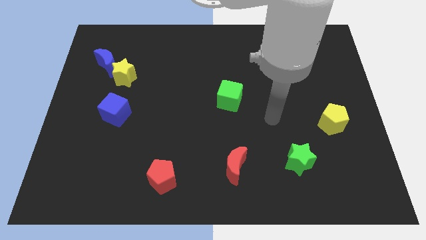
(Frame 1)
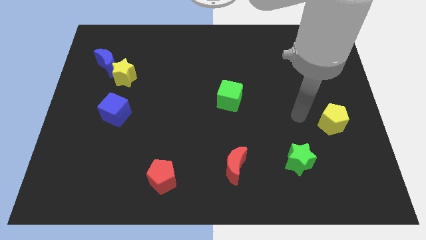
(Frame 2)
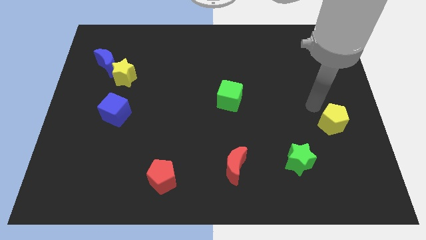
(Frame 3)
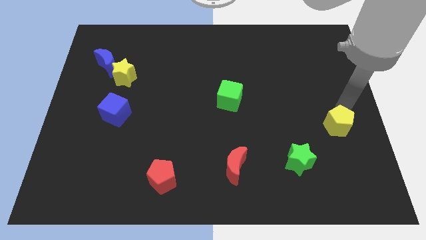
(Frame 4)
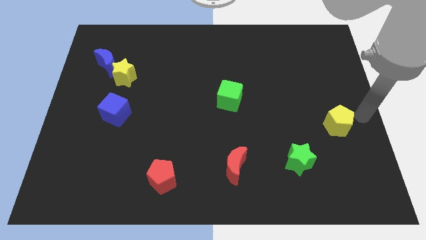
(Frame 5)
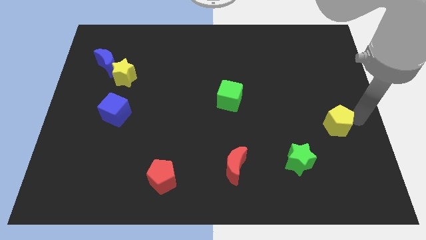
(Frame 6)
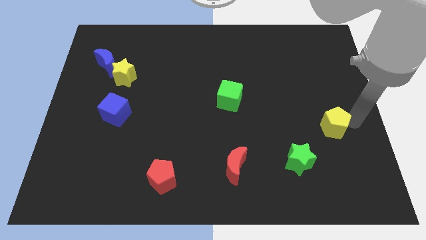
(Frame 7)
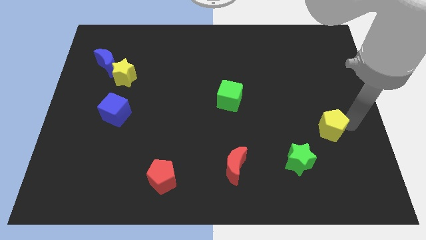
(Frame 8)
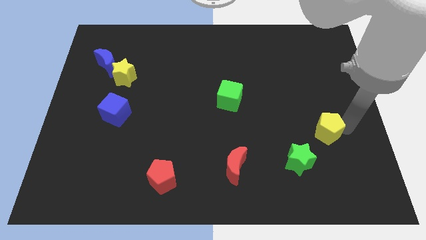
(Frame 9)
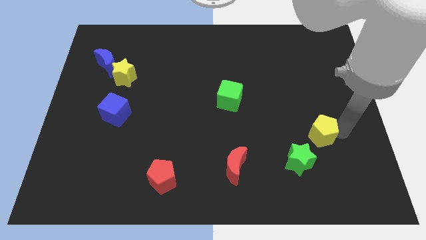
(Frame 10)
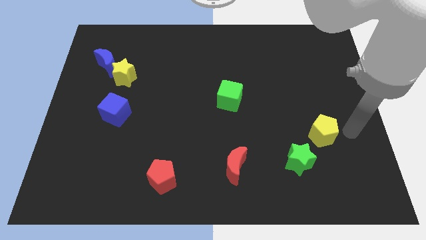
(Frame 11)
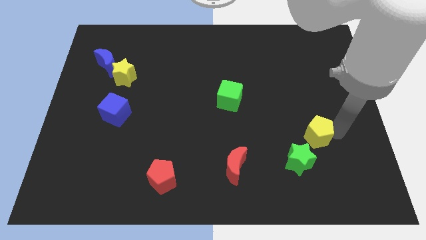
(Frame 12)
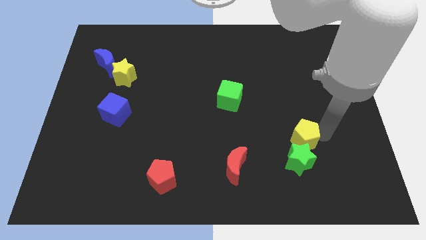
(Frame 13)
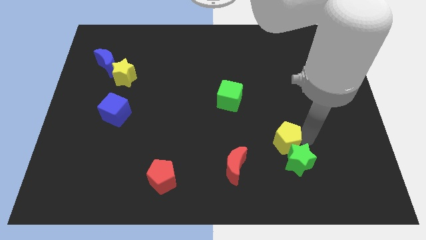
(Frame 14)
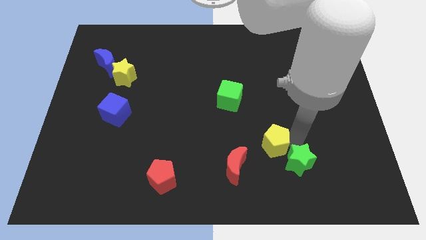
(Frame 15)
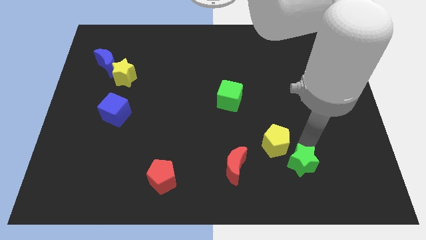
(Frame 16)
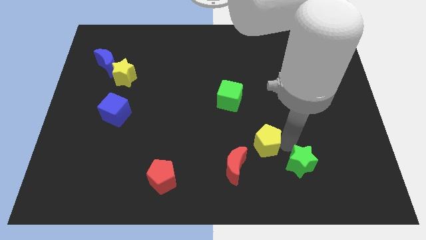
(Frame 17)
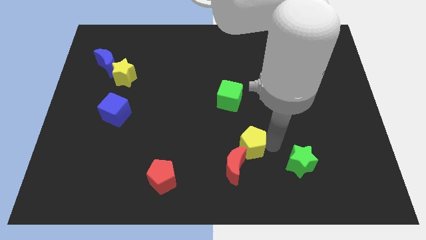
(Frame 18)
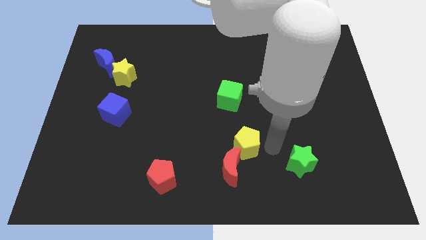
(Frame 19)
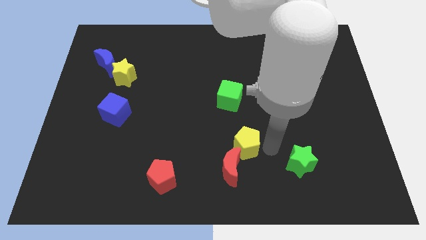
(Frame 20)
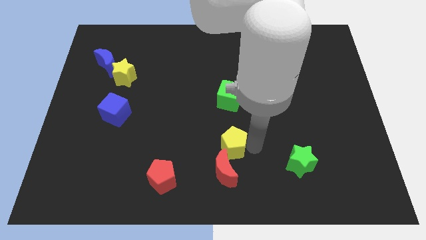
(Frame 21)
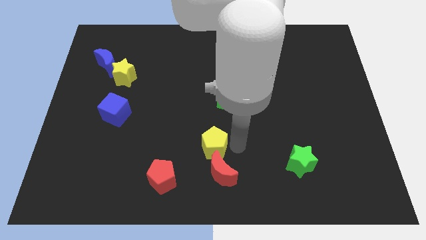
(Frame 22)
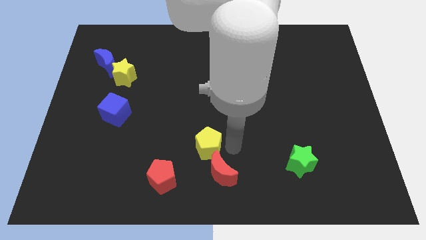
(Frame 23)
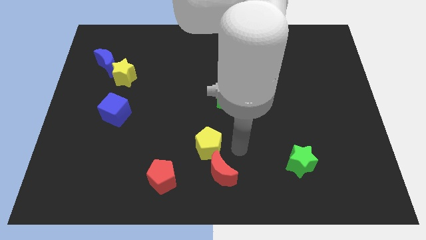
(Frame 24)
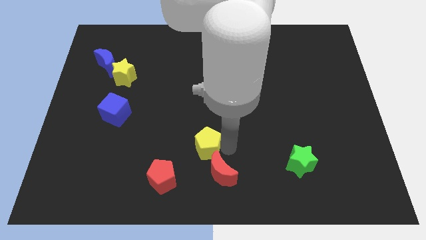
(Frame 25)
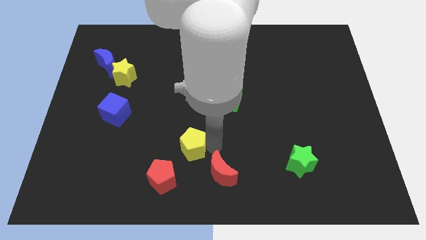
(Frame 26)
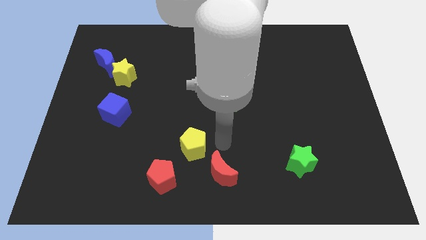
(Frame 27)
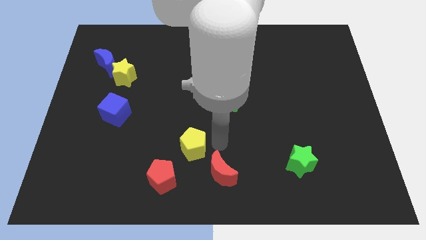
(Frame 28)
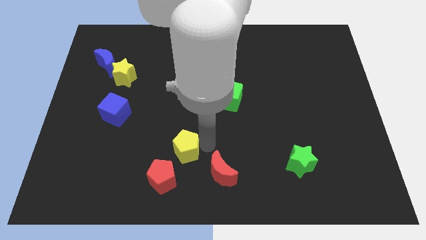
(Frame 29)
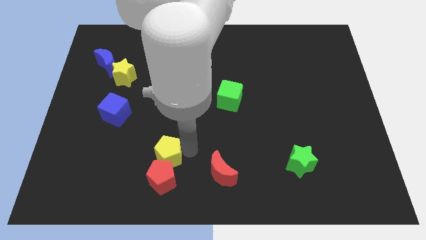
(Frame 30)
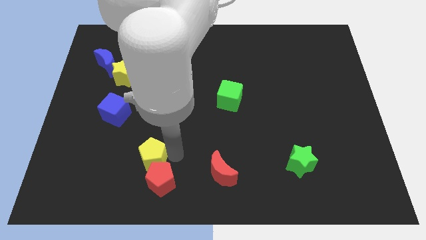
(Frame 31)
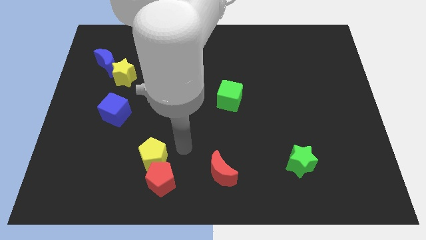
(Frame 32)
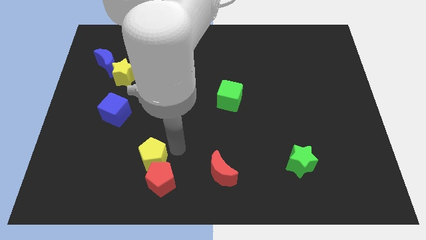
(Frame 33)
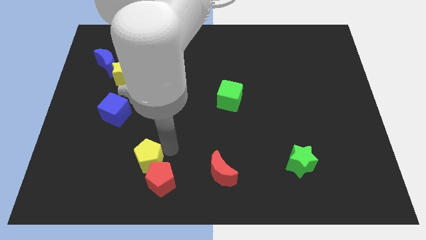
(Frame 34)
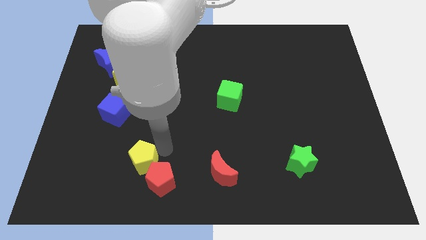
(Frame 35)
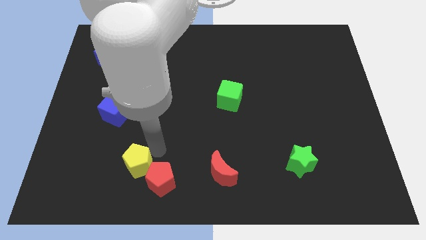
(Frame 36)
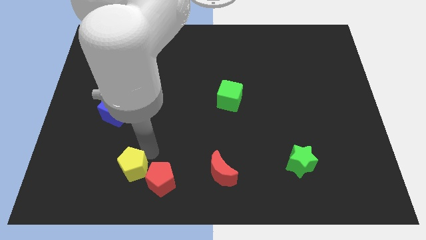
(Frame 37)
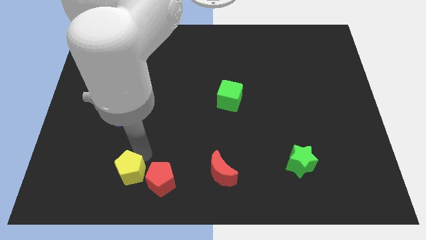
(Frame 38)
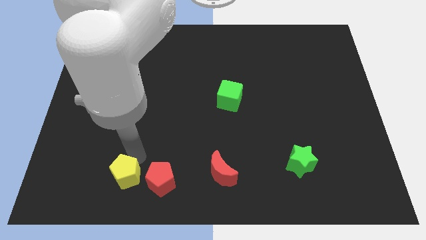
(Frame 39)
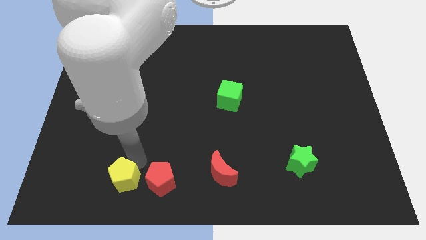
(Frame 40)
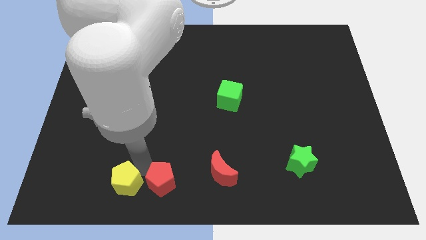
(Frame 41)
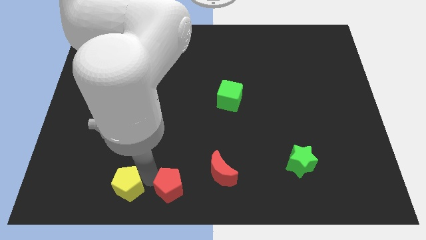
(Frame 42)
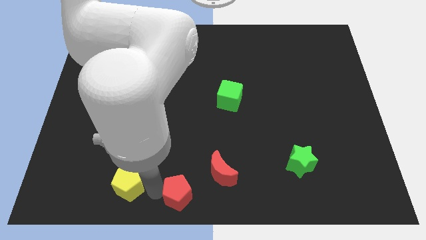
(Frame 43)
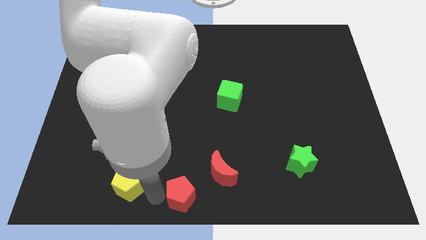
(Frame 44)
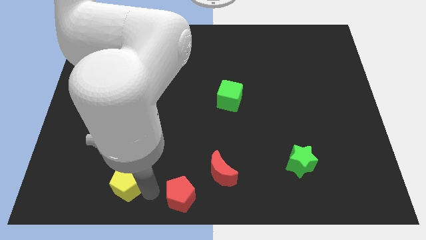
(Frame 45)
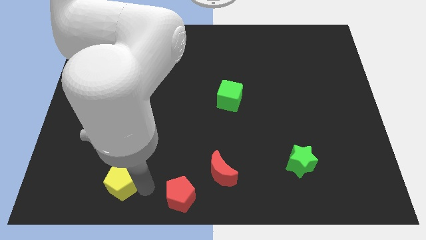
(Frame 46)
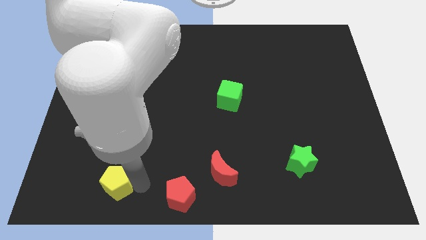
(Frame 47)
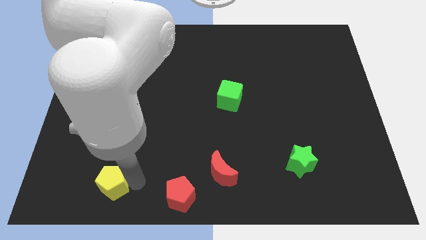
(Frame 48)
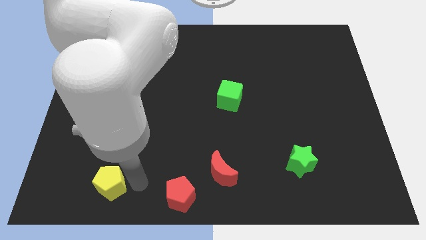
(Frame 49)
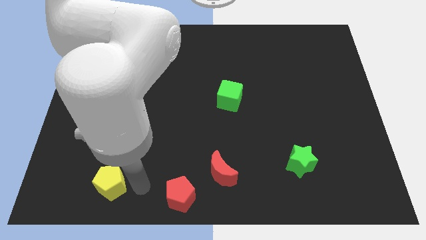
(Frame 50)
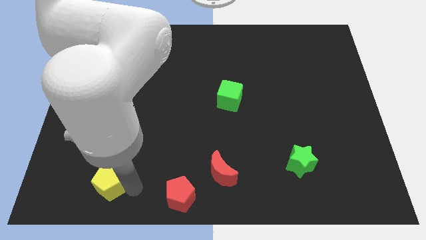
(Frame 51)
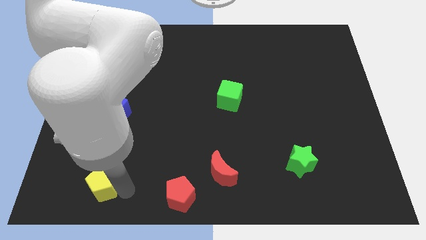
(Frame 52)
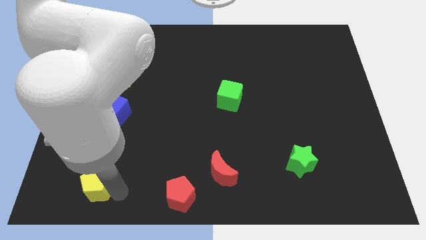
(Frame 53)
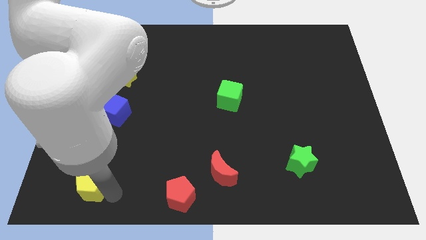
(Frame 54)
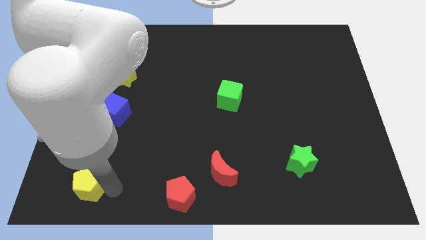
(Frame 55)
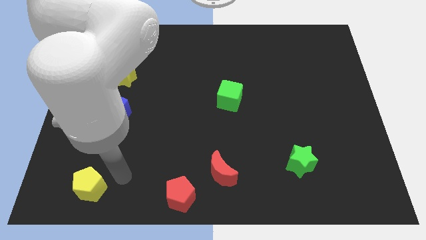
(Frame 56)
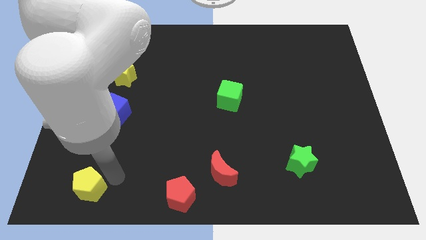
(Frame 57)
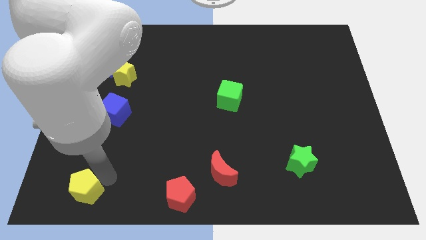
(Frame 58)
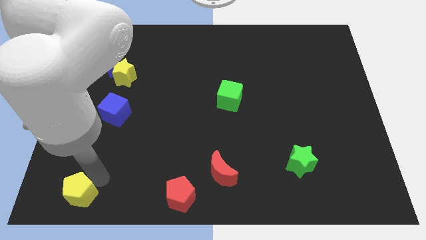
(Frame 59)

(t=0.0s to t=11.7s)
move the yellow pentagon to the bottom left of the board

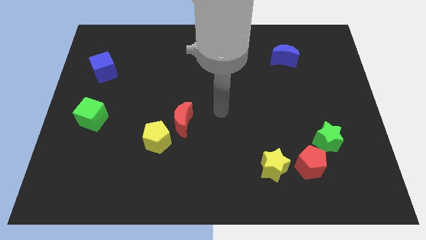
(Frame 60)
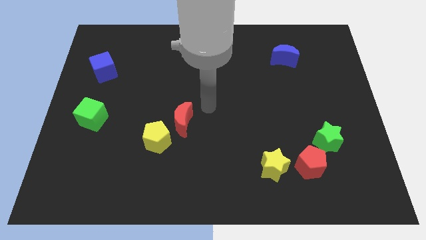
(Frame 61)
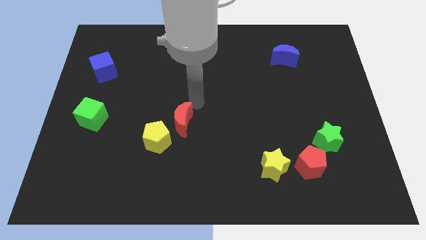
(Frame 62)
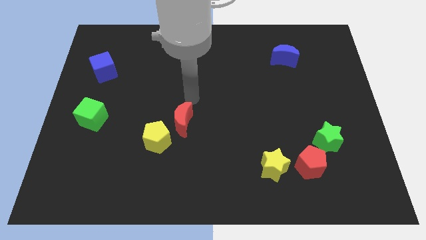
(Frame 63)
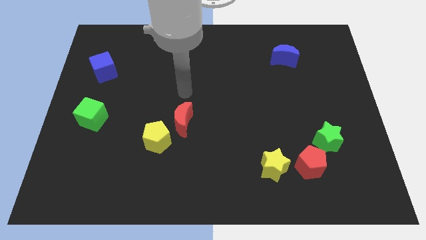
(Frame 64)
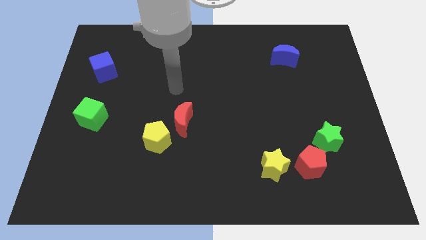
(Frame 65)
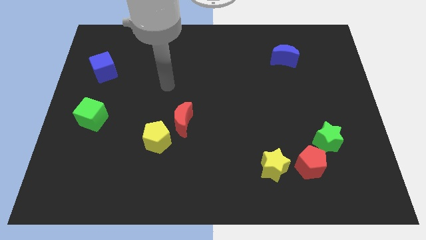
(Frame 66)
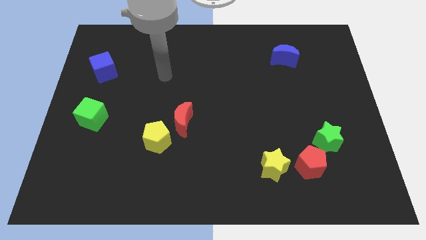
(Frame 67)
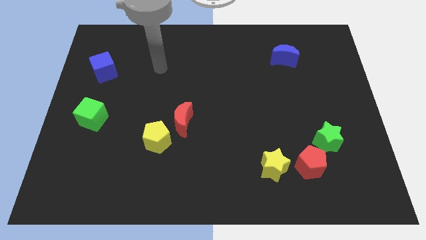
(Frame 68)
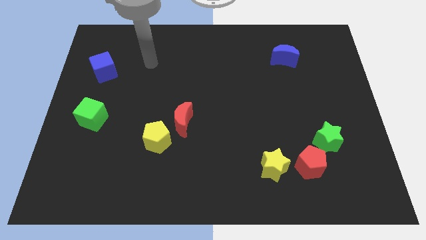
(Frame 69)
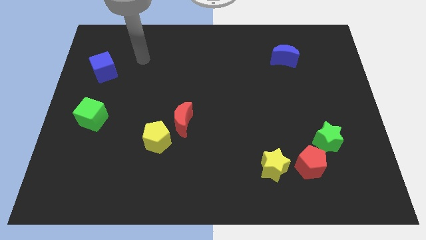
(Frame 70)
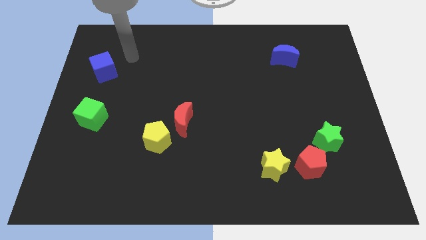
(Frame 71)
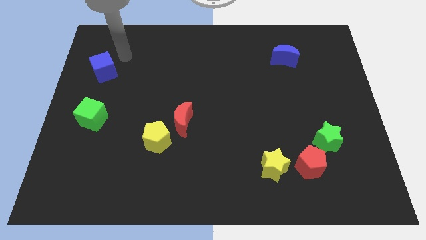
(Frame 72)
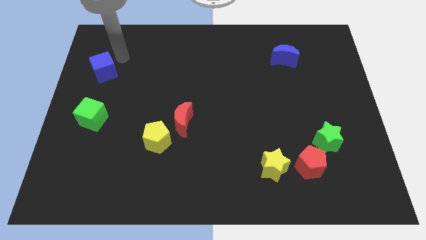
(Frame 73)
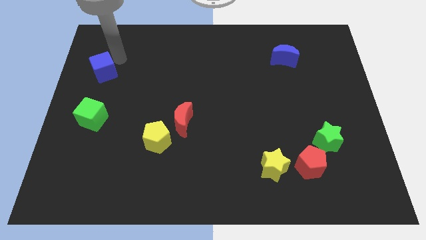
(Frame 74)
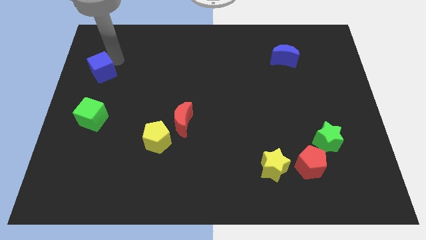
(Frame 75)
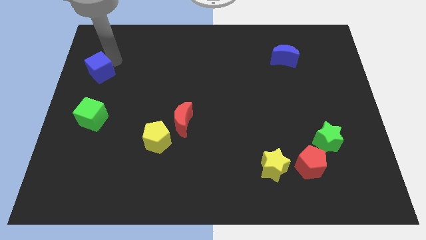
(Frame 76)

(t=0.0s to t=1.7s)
push the blue cube to the left side of the board
